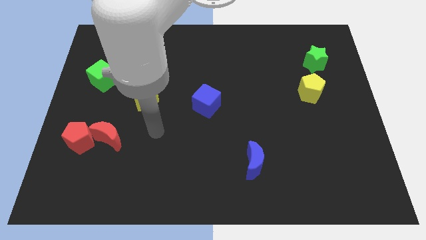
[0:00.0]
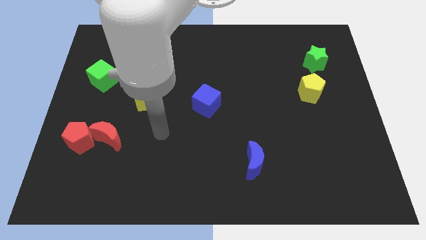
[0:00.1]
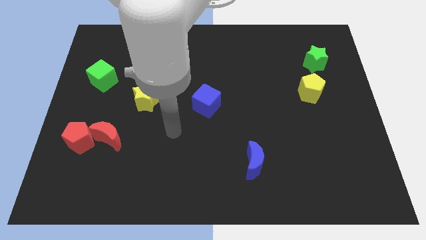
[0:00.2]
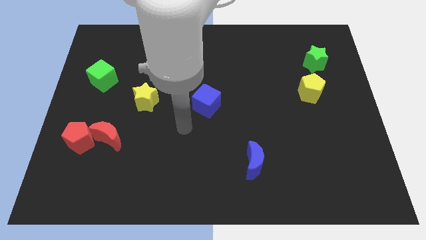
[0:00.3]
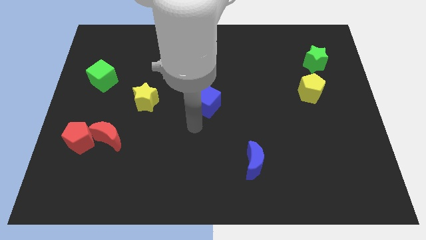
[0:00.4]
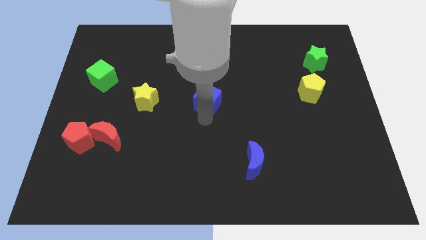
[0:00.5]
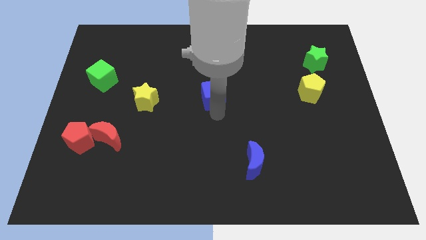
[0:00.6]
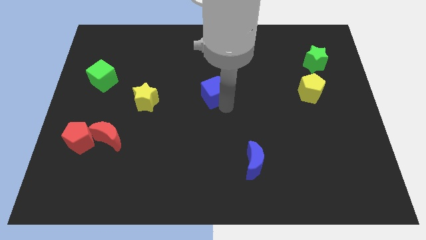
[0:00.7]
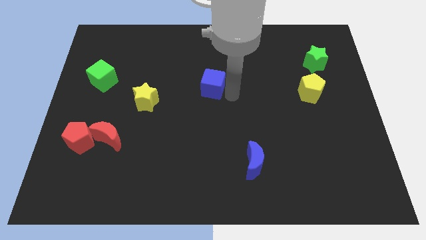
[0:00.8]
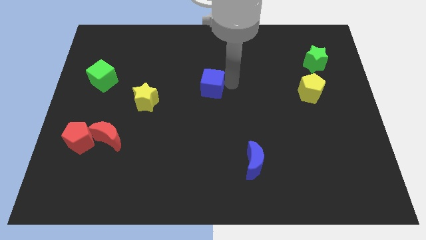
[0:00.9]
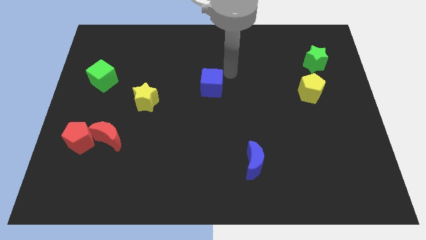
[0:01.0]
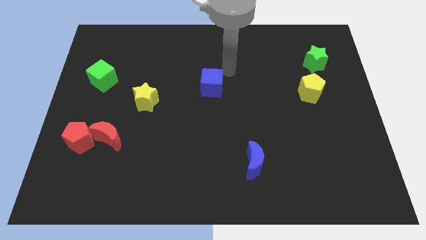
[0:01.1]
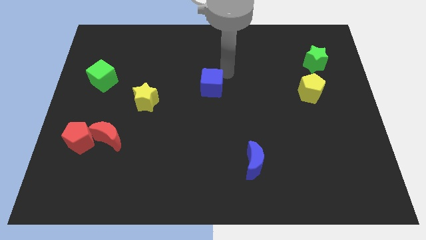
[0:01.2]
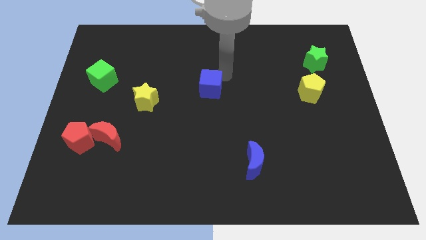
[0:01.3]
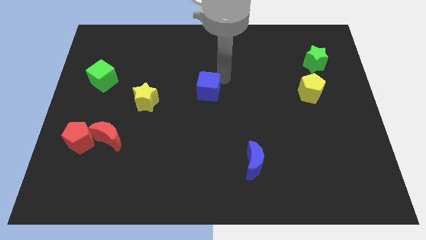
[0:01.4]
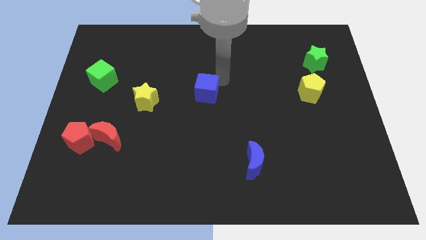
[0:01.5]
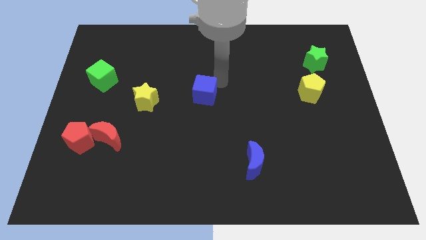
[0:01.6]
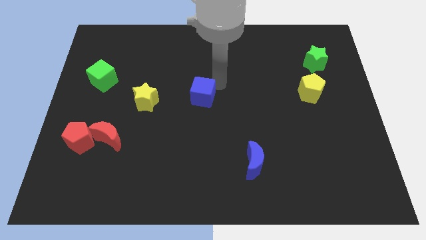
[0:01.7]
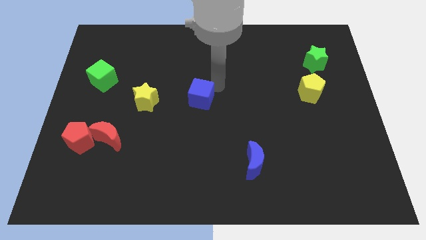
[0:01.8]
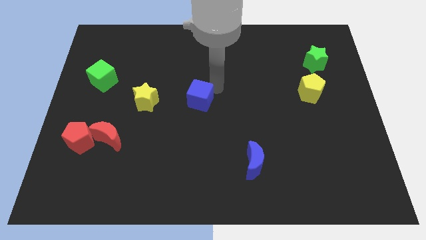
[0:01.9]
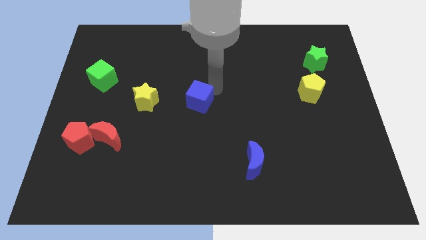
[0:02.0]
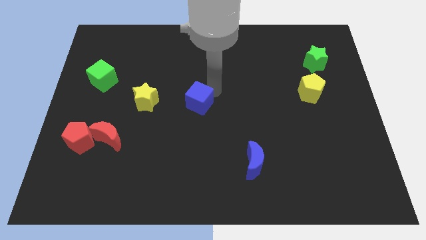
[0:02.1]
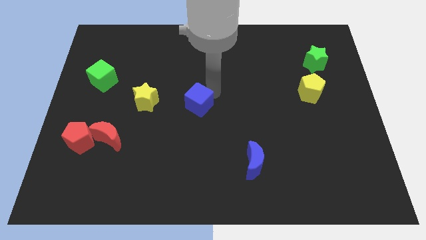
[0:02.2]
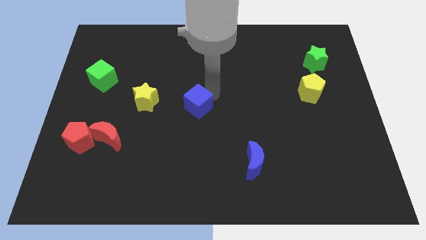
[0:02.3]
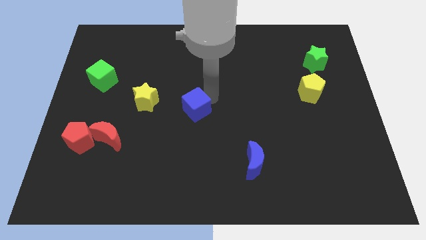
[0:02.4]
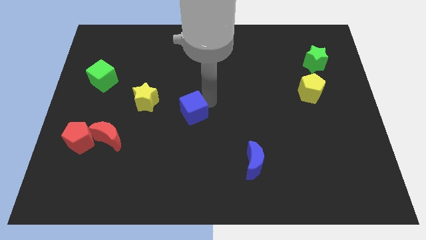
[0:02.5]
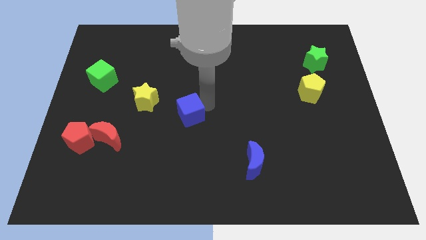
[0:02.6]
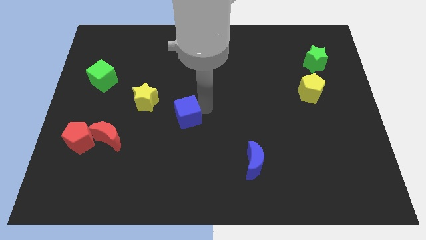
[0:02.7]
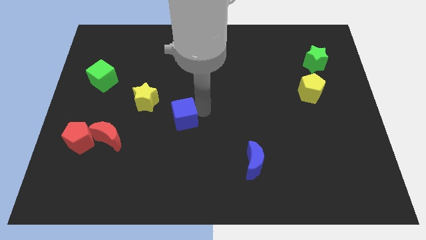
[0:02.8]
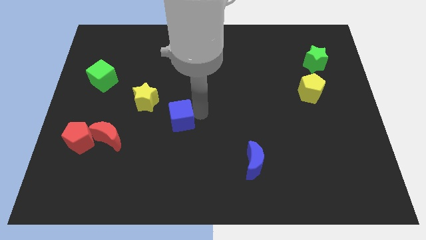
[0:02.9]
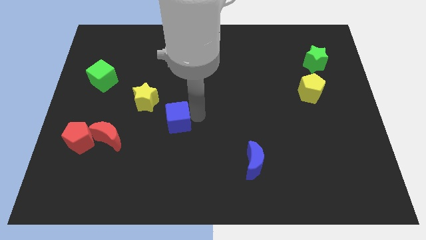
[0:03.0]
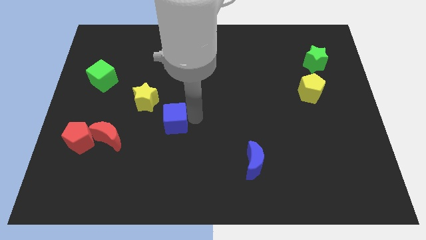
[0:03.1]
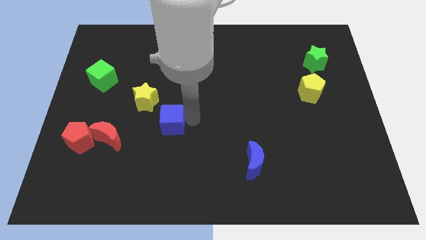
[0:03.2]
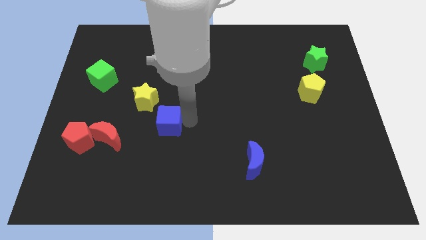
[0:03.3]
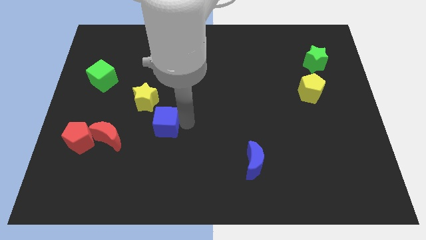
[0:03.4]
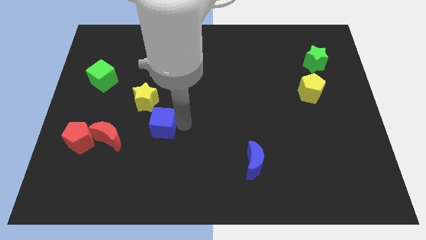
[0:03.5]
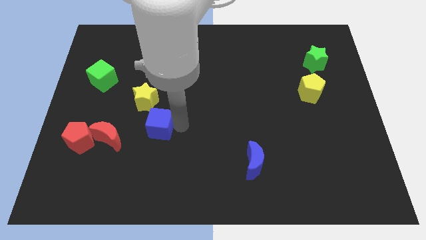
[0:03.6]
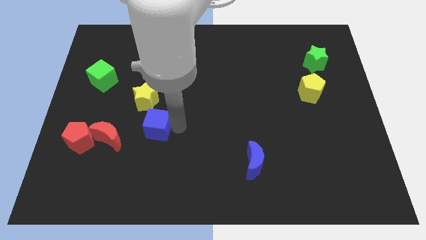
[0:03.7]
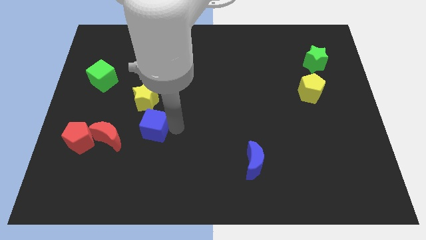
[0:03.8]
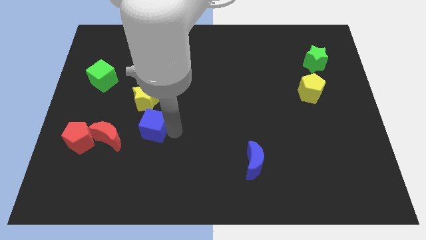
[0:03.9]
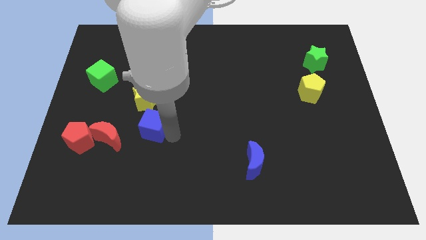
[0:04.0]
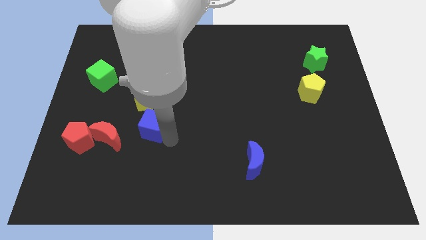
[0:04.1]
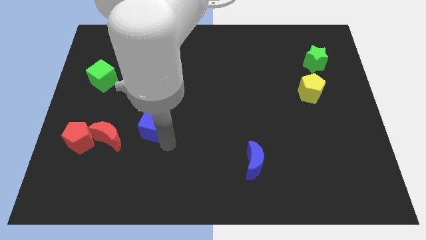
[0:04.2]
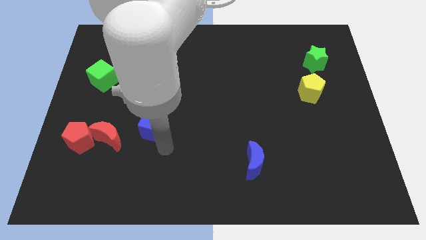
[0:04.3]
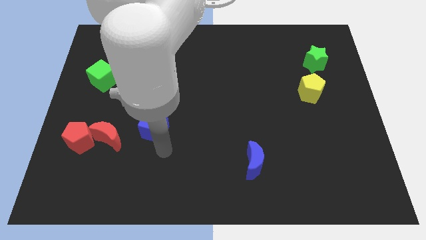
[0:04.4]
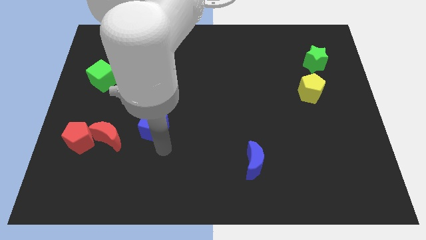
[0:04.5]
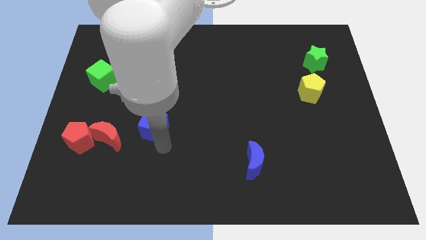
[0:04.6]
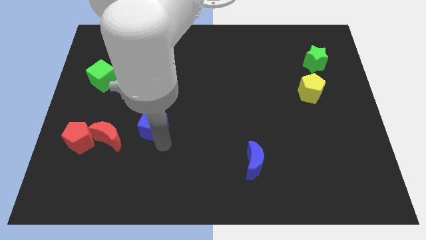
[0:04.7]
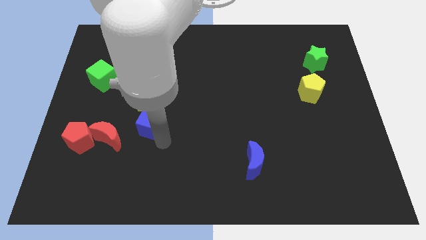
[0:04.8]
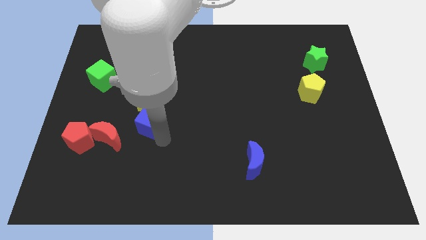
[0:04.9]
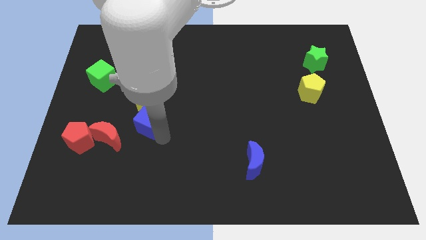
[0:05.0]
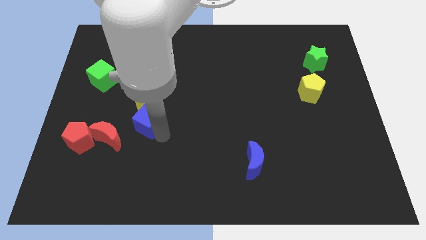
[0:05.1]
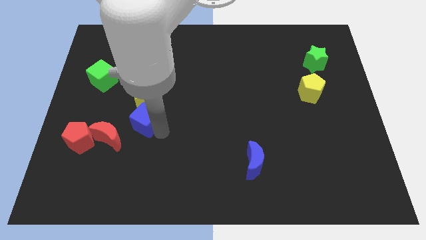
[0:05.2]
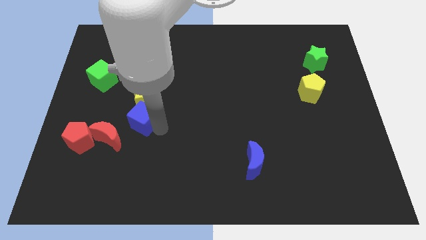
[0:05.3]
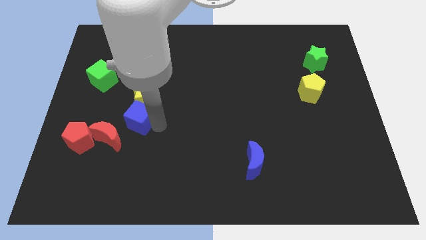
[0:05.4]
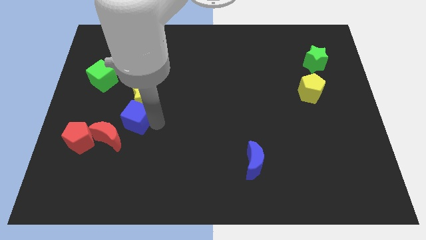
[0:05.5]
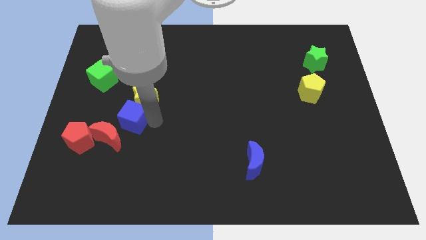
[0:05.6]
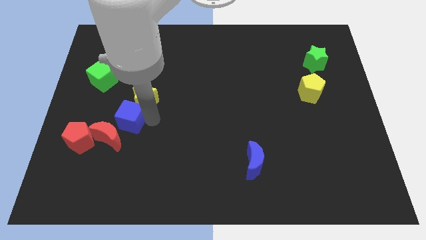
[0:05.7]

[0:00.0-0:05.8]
put the blue cube to the top right side of the red pentagon
